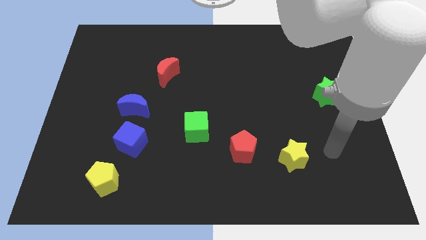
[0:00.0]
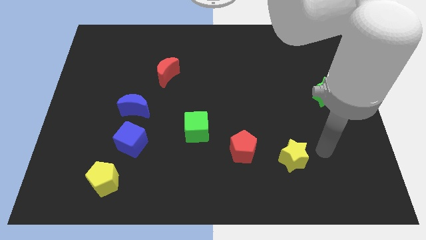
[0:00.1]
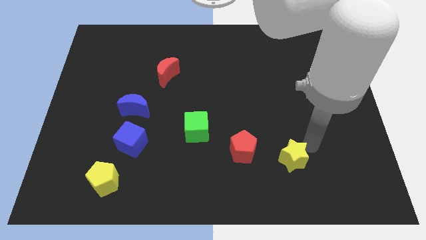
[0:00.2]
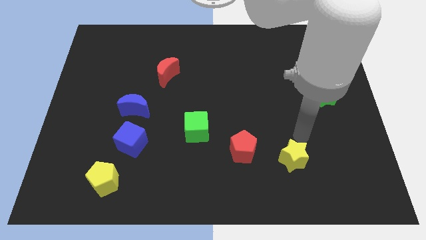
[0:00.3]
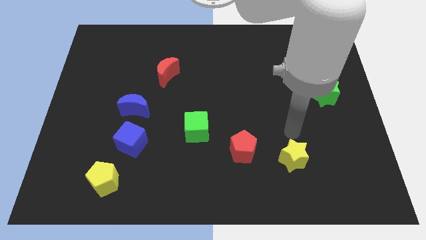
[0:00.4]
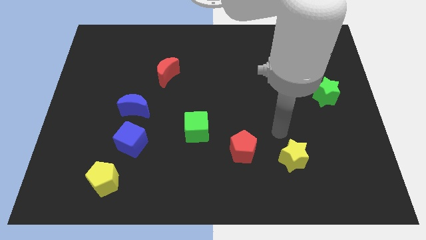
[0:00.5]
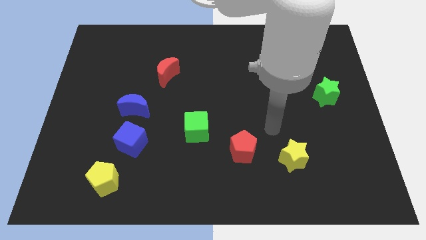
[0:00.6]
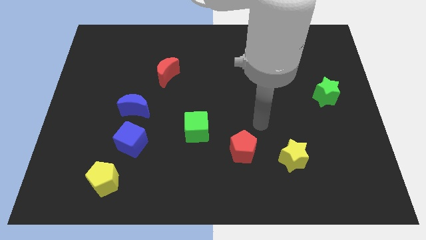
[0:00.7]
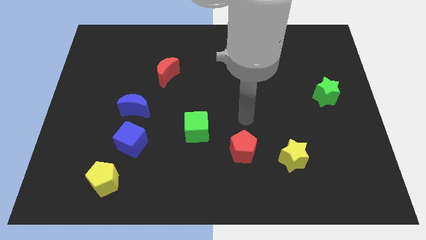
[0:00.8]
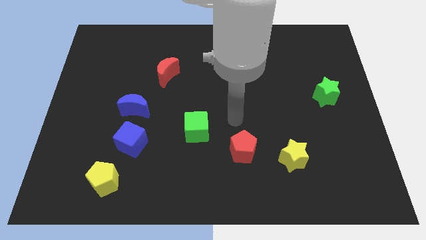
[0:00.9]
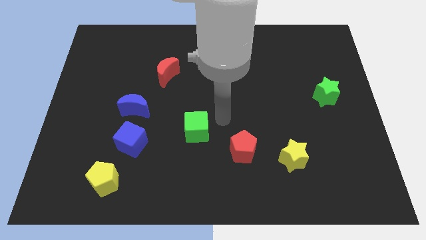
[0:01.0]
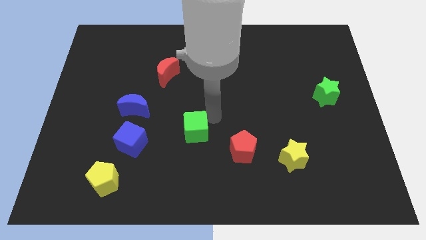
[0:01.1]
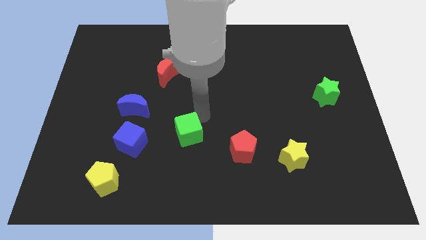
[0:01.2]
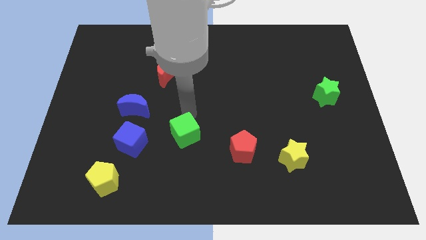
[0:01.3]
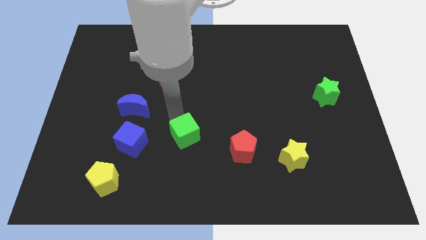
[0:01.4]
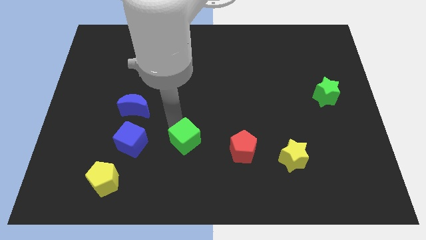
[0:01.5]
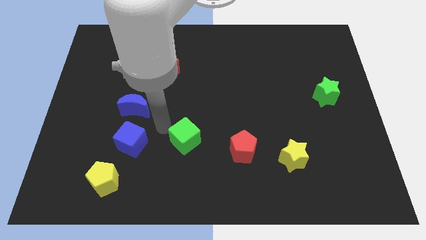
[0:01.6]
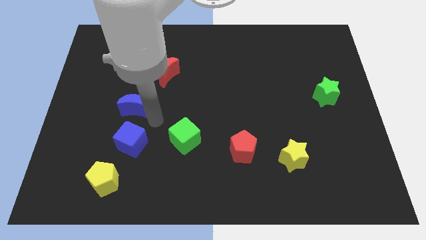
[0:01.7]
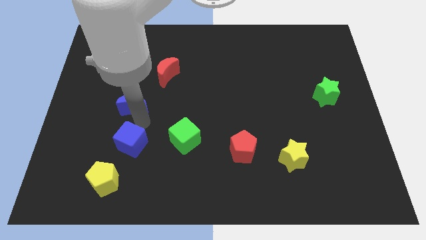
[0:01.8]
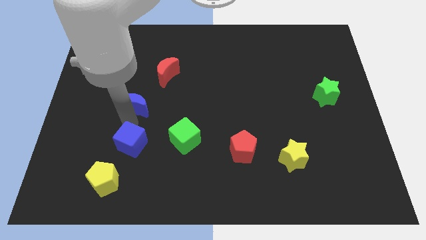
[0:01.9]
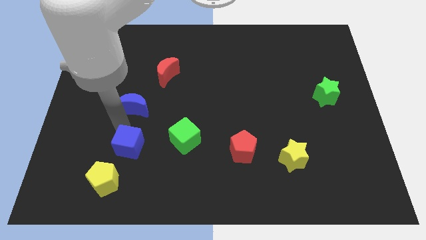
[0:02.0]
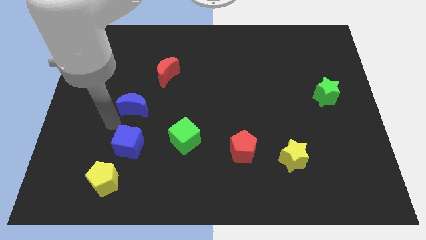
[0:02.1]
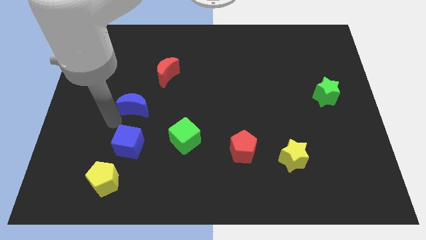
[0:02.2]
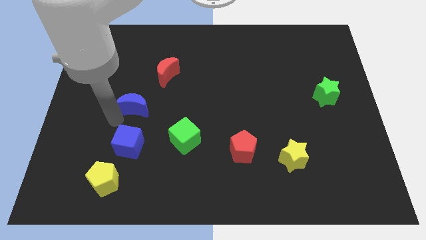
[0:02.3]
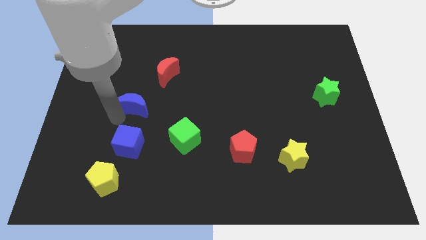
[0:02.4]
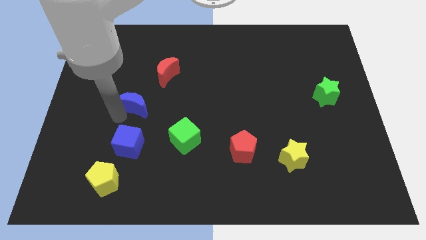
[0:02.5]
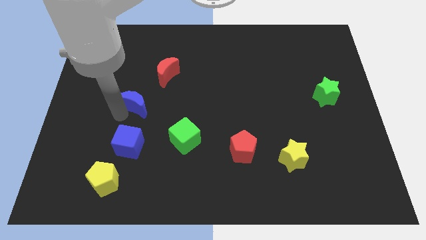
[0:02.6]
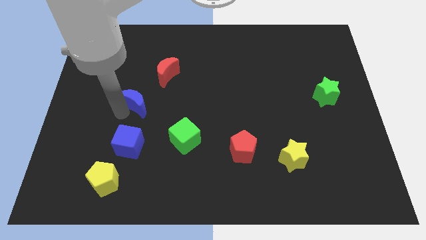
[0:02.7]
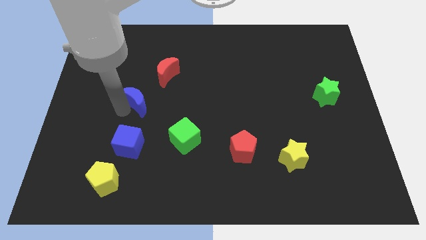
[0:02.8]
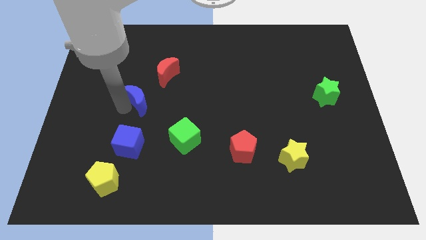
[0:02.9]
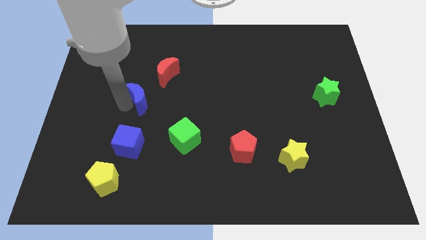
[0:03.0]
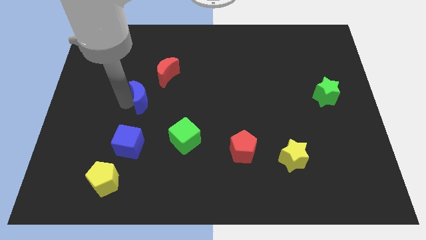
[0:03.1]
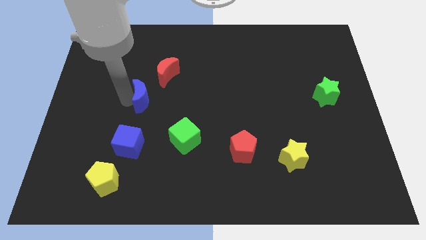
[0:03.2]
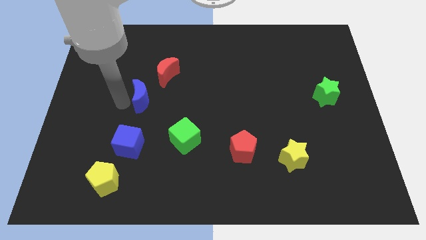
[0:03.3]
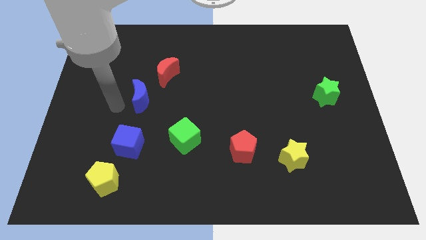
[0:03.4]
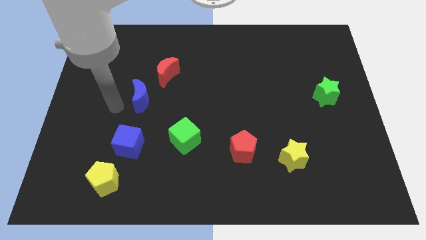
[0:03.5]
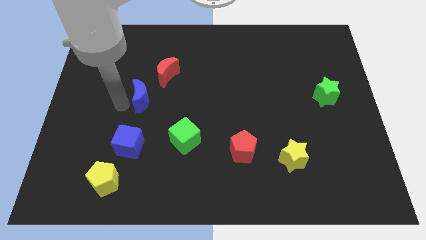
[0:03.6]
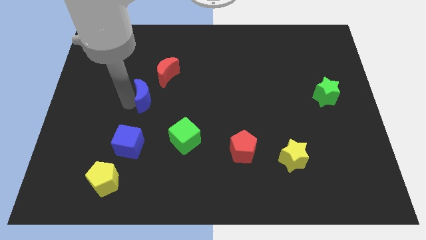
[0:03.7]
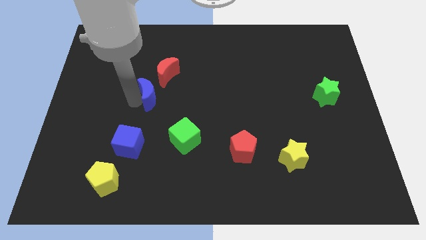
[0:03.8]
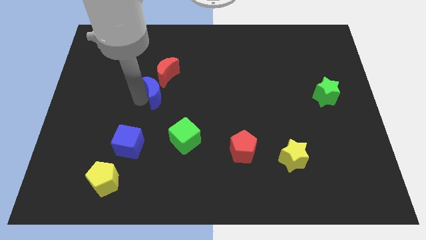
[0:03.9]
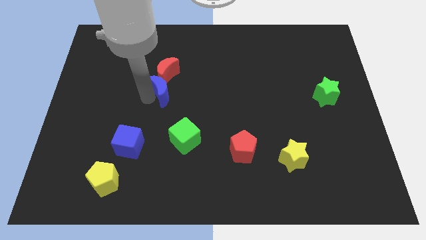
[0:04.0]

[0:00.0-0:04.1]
move the blue moon a little up and then right

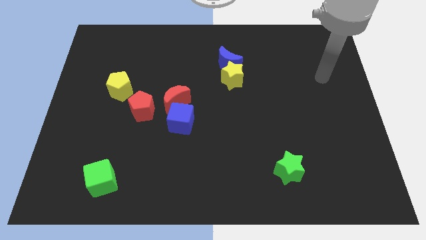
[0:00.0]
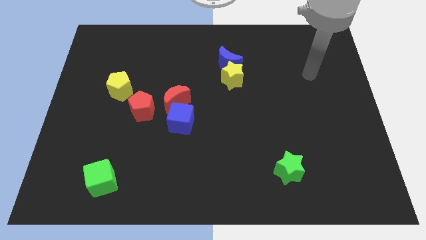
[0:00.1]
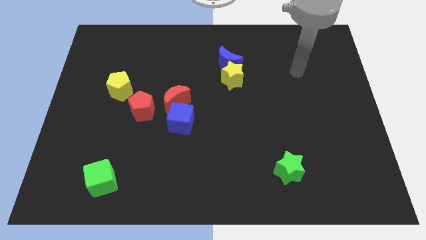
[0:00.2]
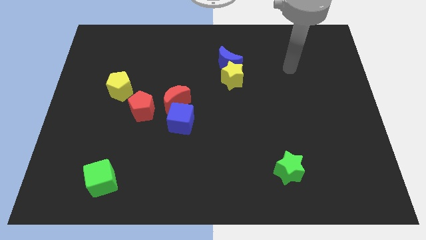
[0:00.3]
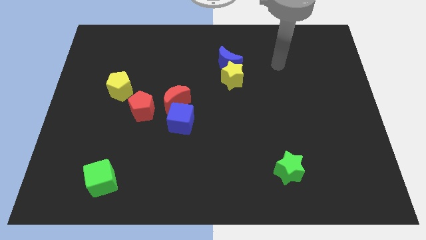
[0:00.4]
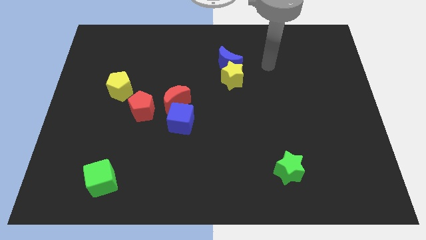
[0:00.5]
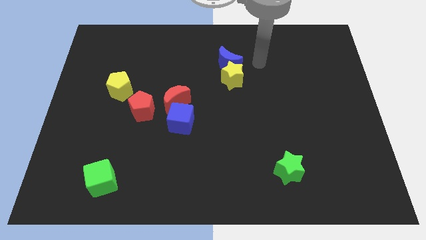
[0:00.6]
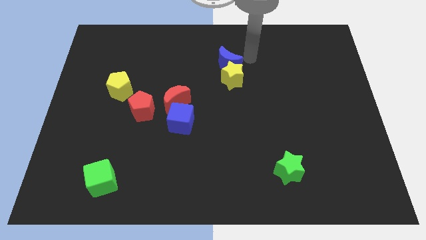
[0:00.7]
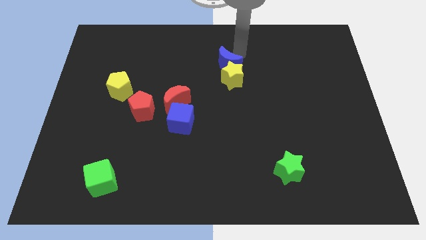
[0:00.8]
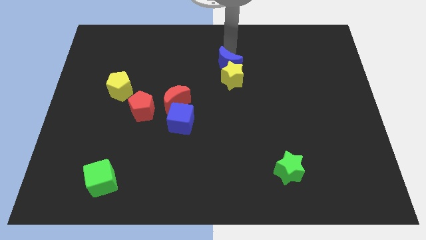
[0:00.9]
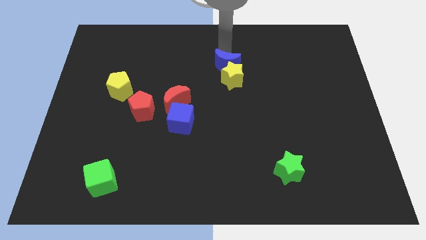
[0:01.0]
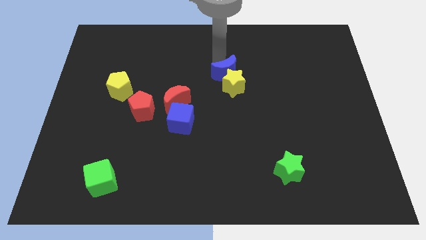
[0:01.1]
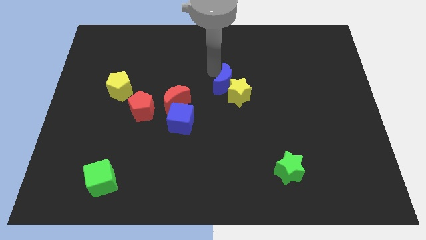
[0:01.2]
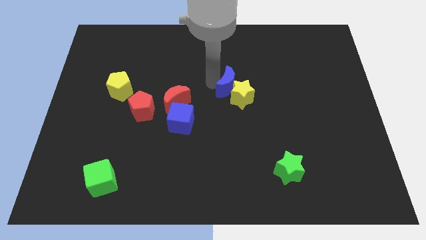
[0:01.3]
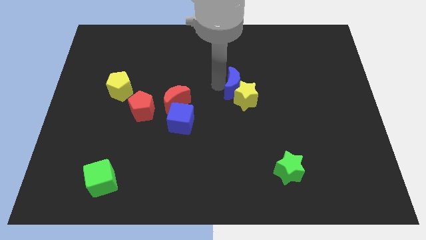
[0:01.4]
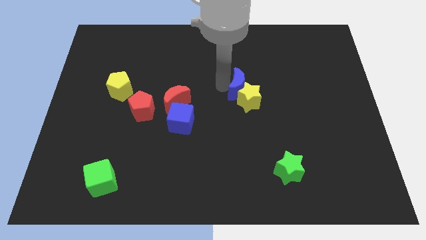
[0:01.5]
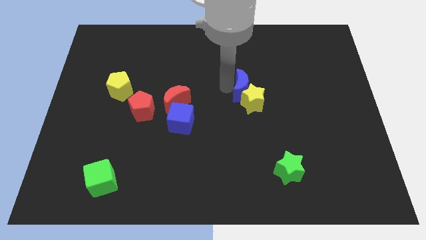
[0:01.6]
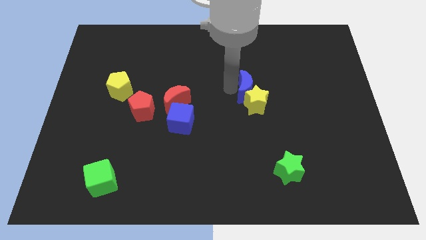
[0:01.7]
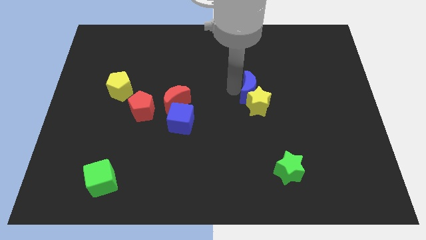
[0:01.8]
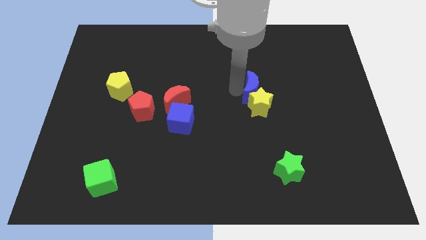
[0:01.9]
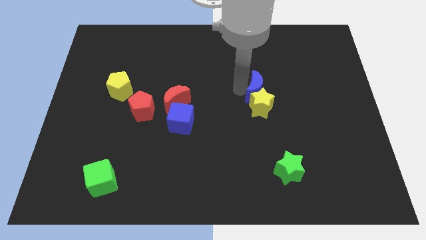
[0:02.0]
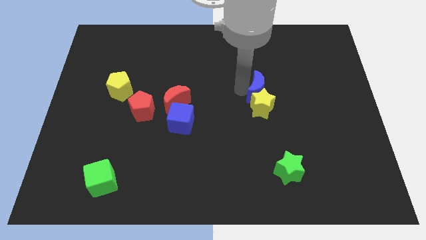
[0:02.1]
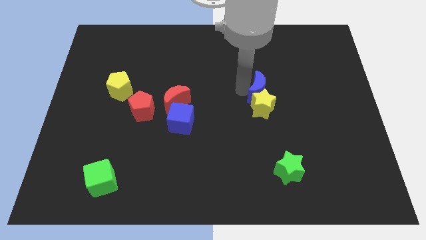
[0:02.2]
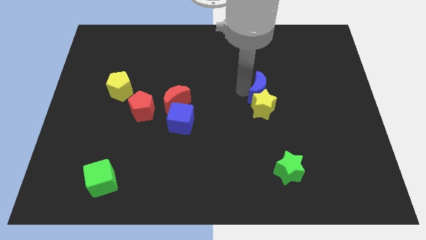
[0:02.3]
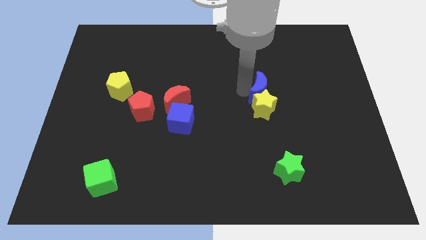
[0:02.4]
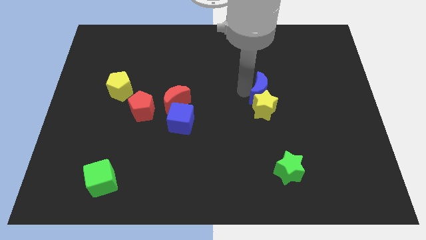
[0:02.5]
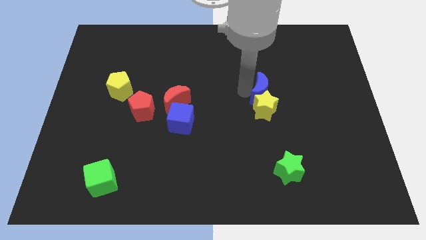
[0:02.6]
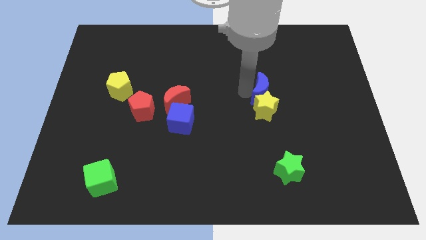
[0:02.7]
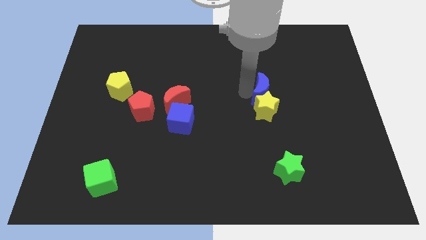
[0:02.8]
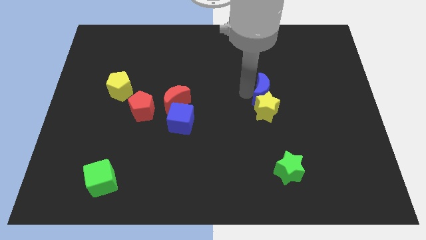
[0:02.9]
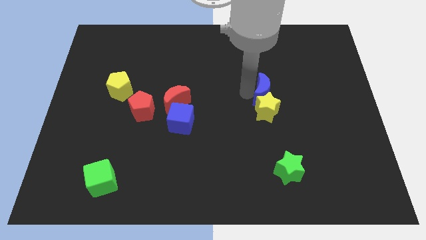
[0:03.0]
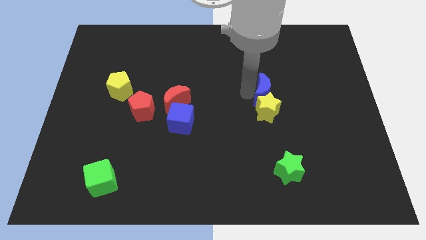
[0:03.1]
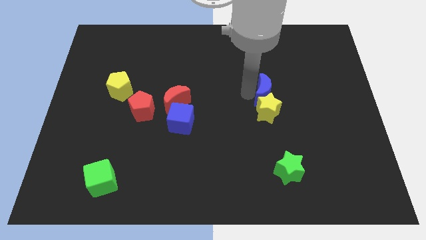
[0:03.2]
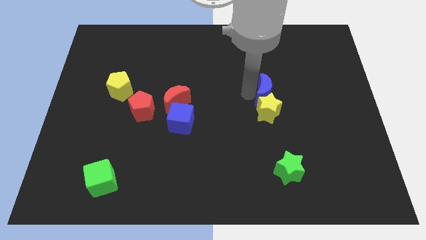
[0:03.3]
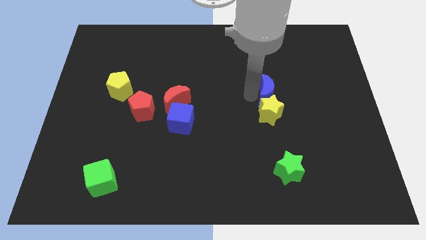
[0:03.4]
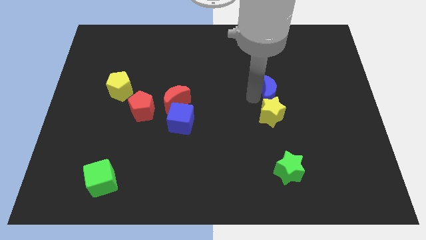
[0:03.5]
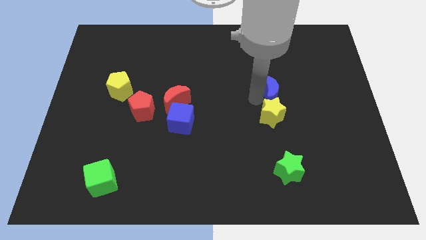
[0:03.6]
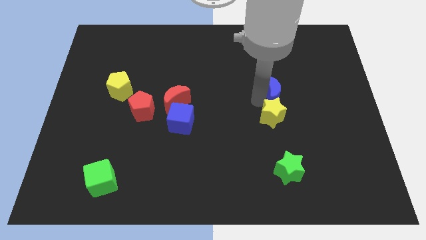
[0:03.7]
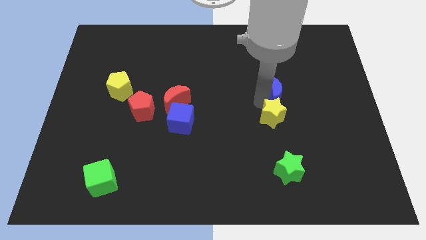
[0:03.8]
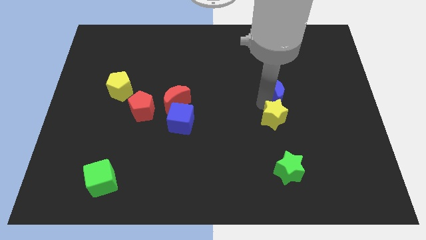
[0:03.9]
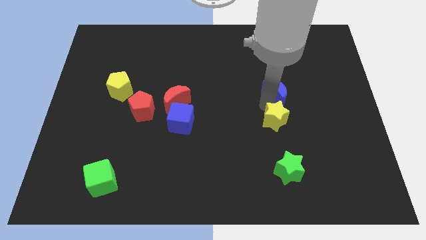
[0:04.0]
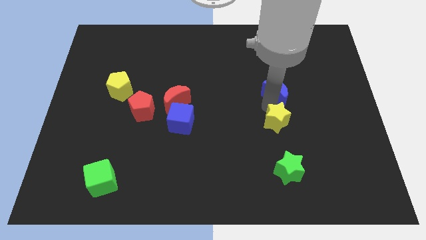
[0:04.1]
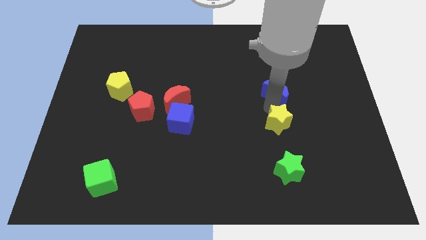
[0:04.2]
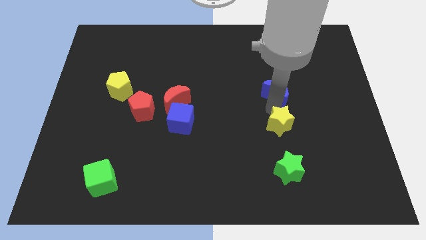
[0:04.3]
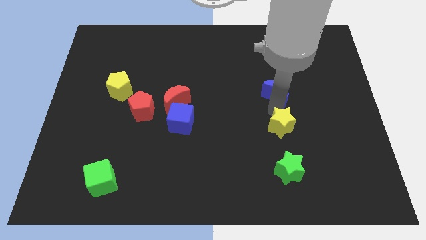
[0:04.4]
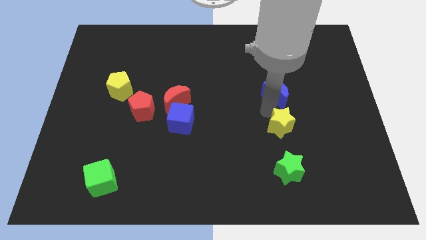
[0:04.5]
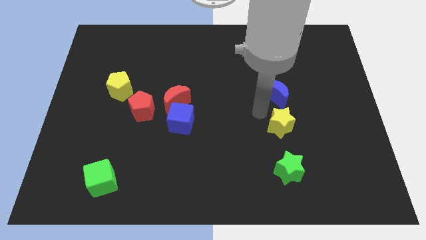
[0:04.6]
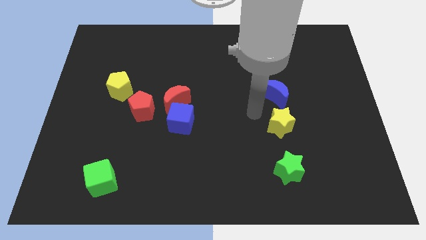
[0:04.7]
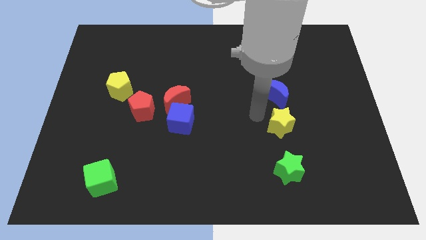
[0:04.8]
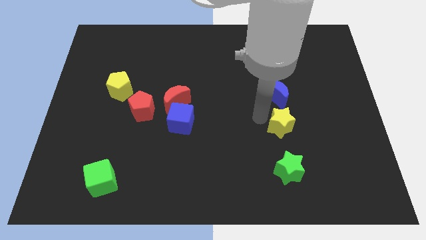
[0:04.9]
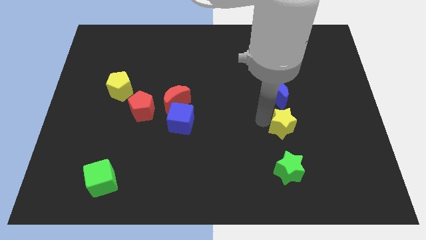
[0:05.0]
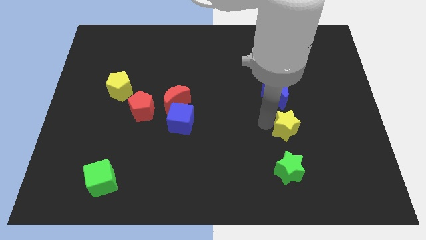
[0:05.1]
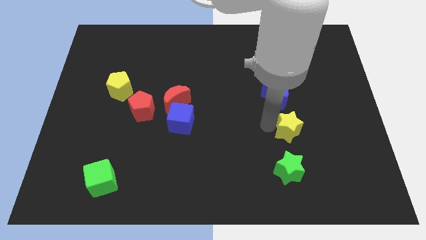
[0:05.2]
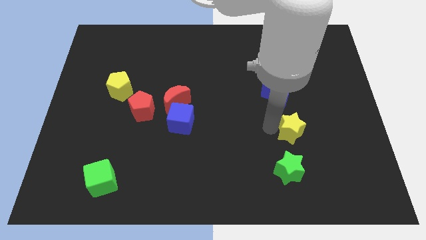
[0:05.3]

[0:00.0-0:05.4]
push the yellow star diagonally down and right
